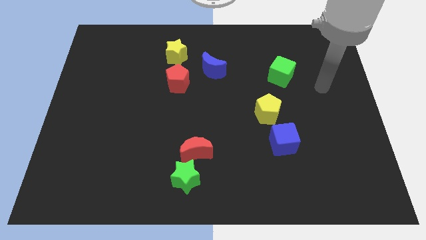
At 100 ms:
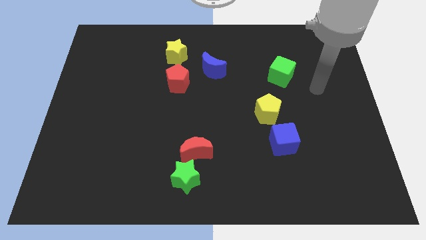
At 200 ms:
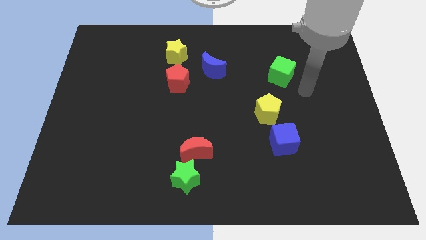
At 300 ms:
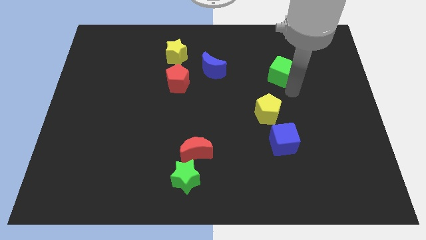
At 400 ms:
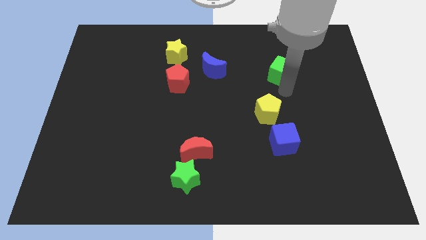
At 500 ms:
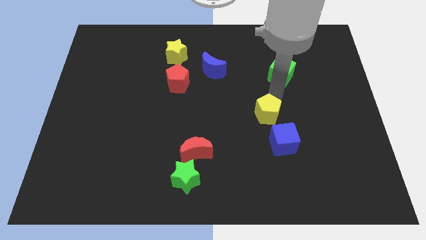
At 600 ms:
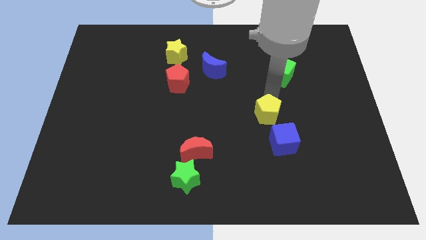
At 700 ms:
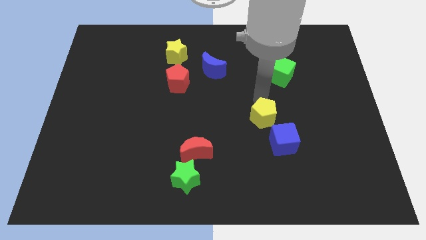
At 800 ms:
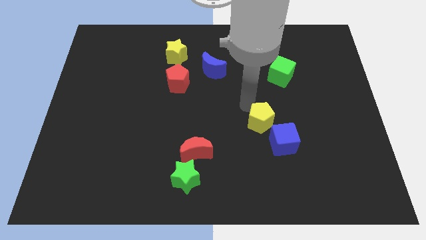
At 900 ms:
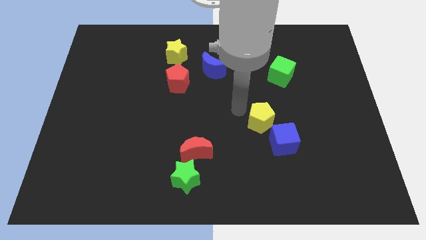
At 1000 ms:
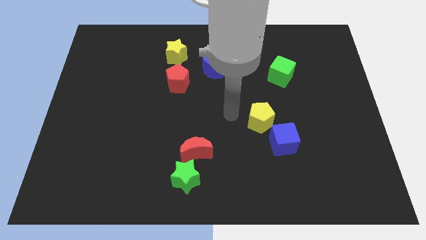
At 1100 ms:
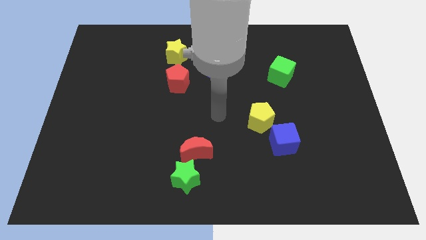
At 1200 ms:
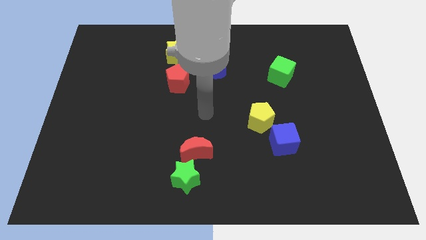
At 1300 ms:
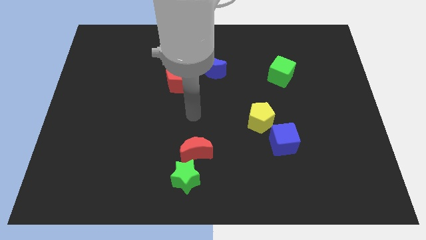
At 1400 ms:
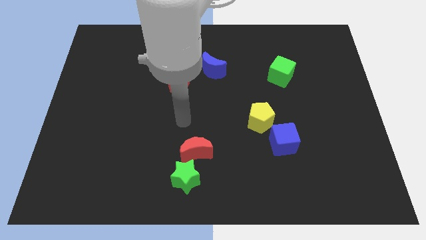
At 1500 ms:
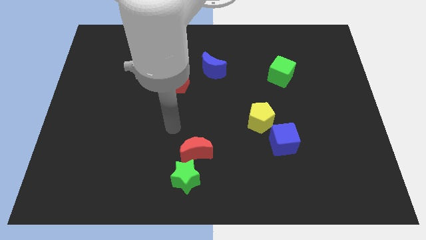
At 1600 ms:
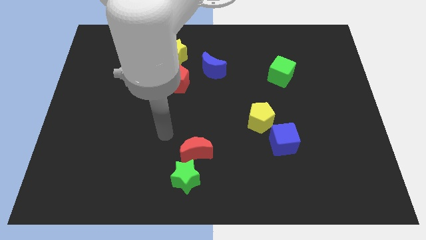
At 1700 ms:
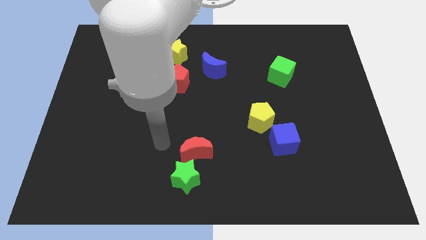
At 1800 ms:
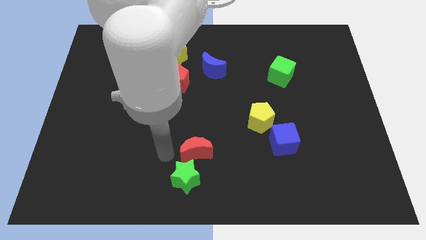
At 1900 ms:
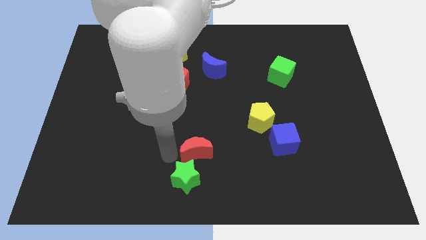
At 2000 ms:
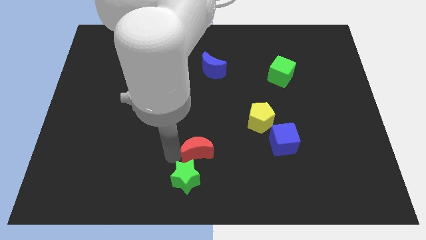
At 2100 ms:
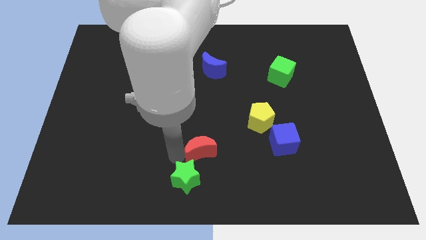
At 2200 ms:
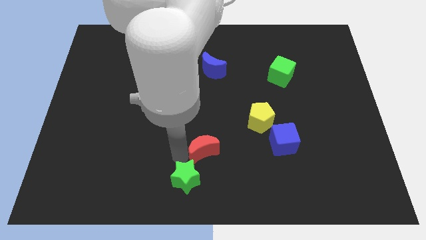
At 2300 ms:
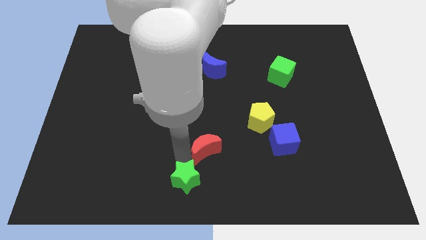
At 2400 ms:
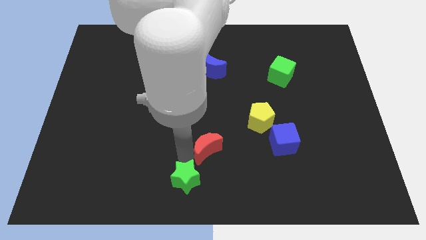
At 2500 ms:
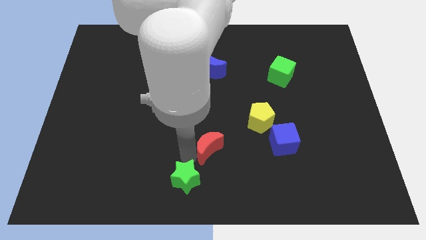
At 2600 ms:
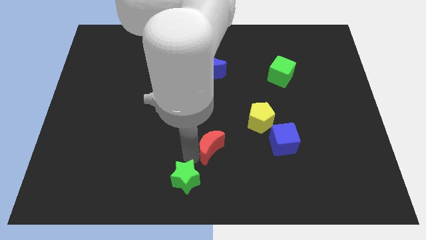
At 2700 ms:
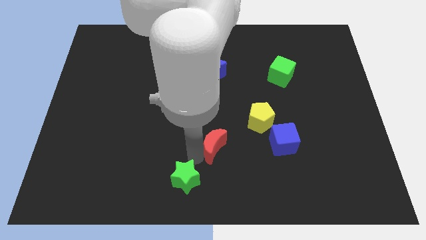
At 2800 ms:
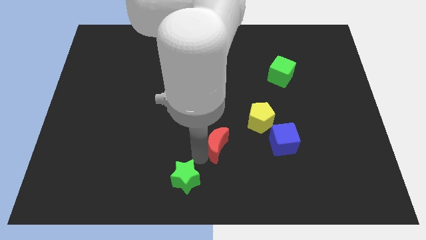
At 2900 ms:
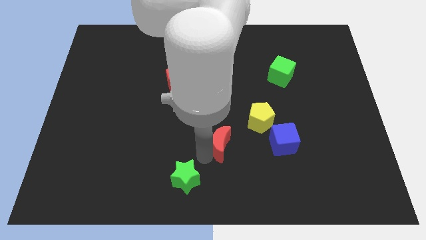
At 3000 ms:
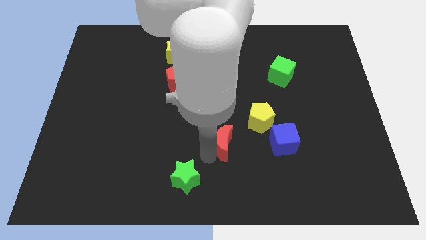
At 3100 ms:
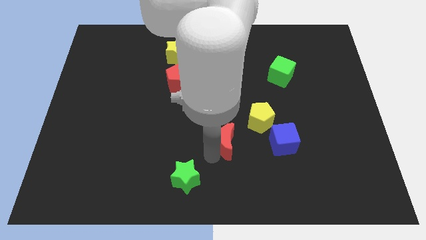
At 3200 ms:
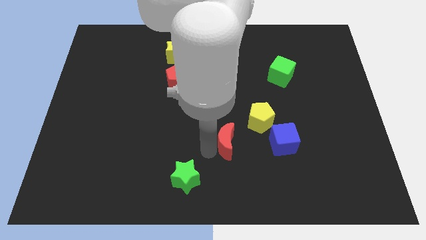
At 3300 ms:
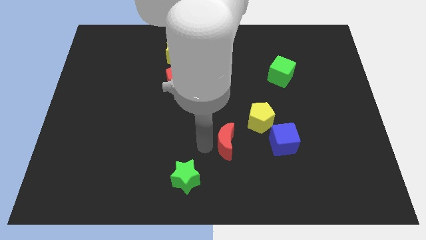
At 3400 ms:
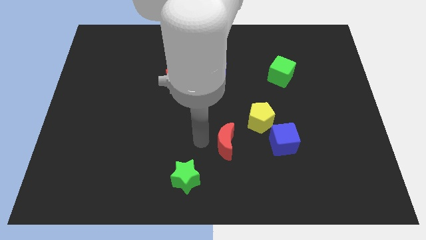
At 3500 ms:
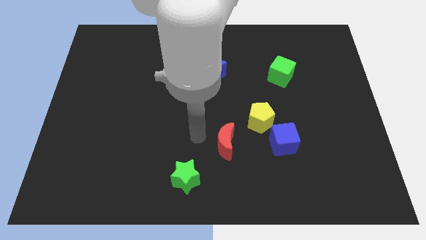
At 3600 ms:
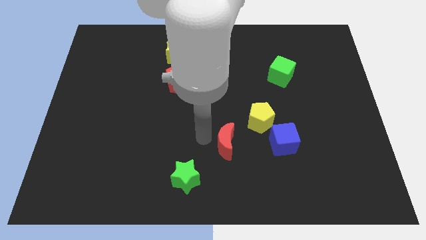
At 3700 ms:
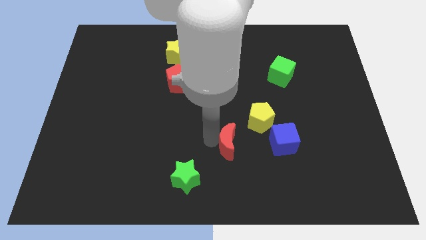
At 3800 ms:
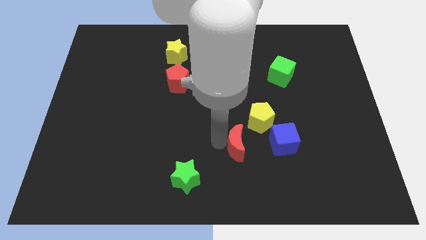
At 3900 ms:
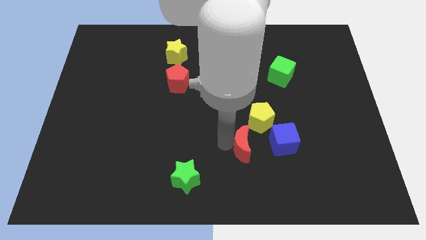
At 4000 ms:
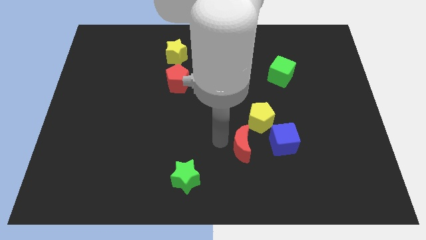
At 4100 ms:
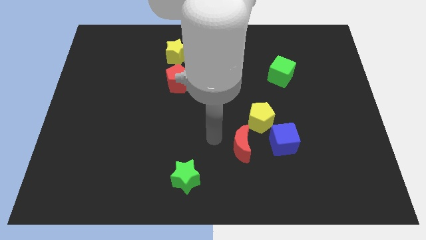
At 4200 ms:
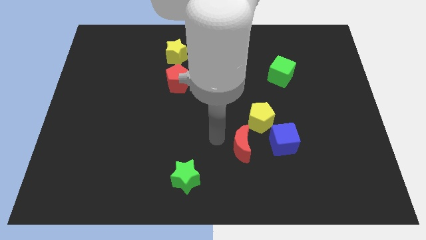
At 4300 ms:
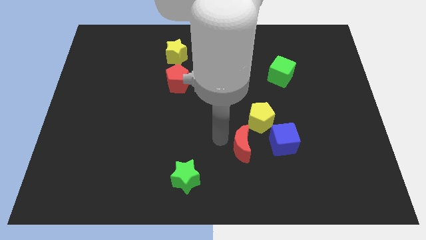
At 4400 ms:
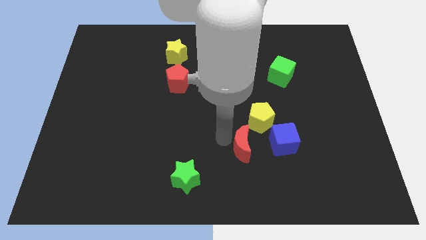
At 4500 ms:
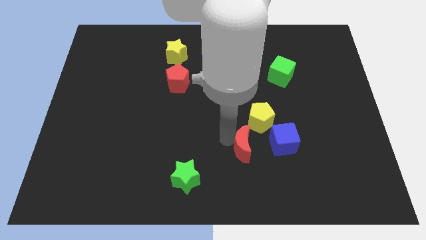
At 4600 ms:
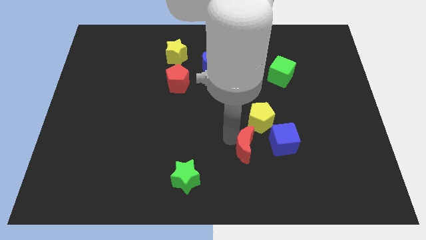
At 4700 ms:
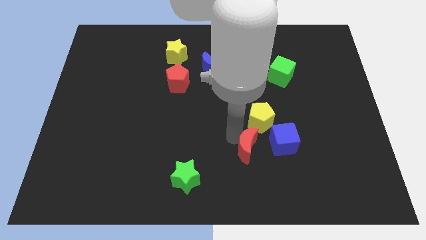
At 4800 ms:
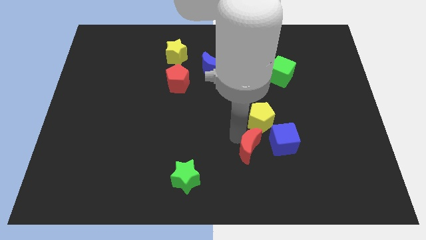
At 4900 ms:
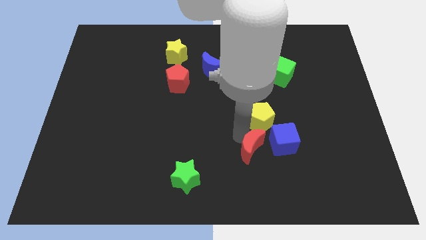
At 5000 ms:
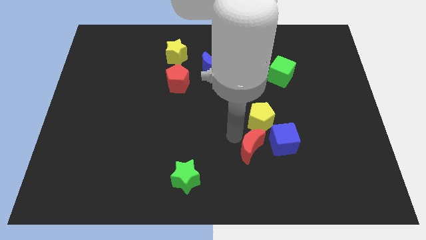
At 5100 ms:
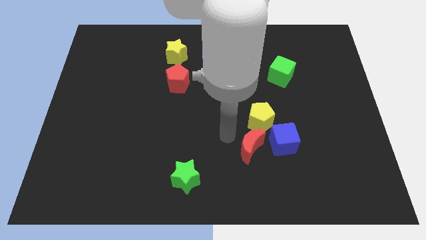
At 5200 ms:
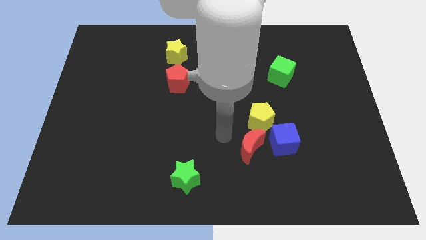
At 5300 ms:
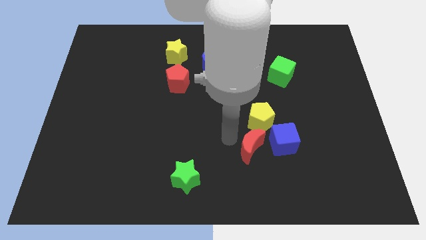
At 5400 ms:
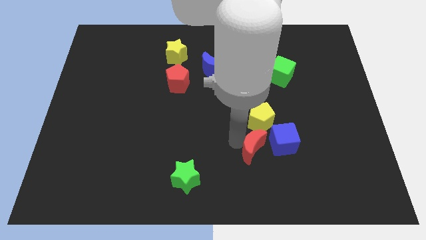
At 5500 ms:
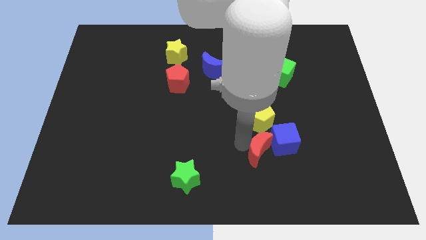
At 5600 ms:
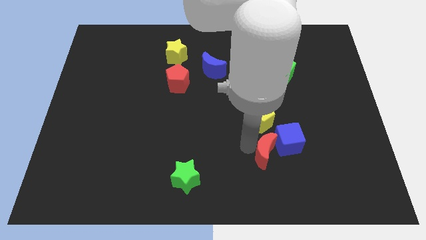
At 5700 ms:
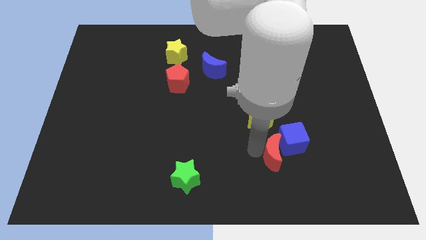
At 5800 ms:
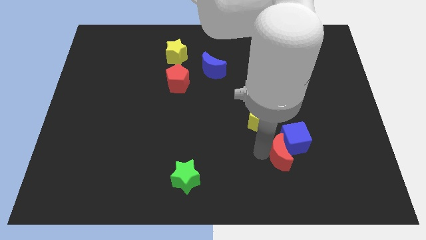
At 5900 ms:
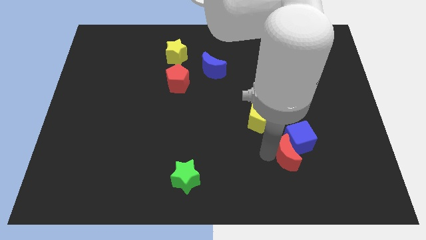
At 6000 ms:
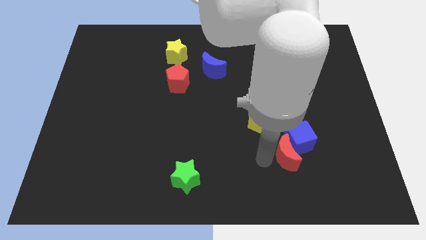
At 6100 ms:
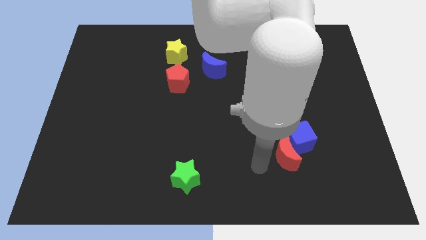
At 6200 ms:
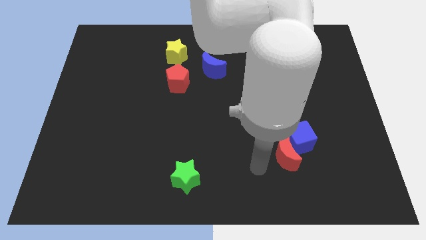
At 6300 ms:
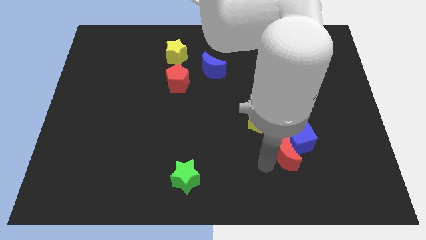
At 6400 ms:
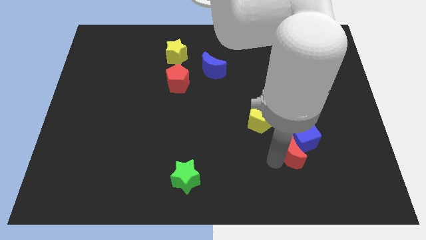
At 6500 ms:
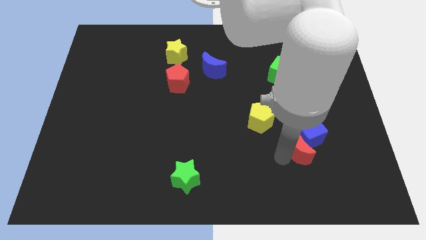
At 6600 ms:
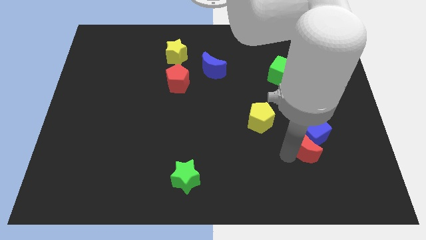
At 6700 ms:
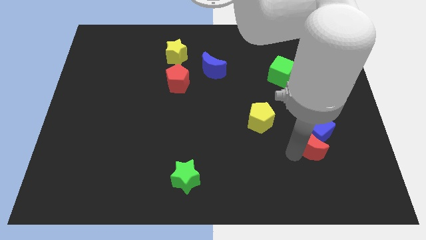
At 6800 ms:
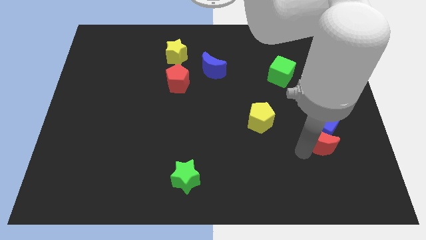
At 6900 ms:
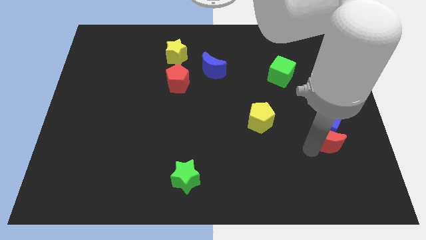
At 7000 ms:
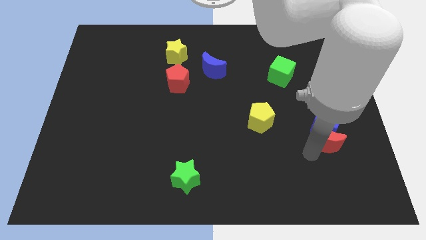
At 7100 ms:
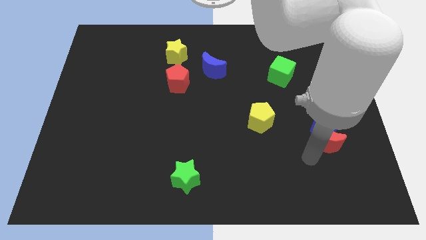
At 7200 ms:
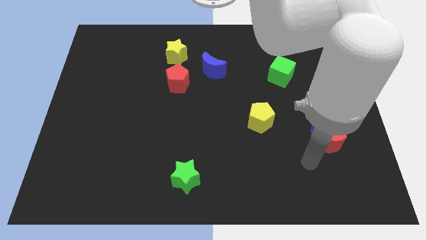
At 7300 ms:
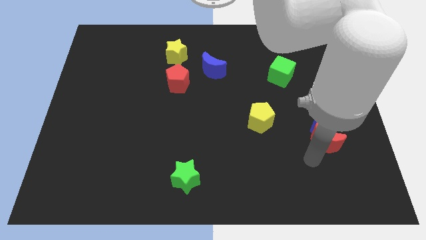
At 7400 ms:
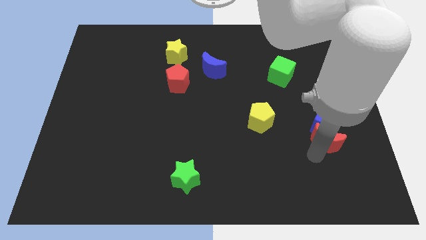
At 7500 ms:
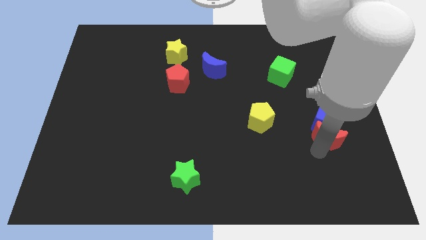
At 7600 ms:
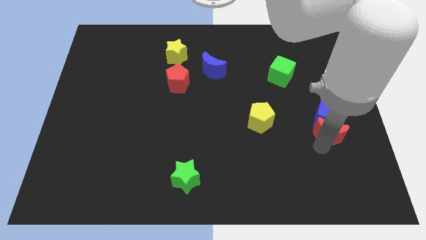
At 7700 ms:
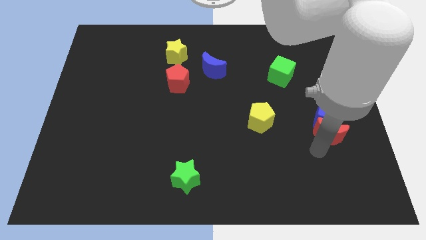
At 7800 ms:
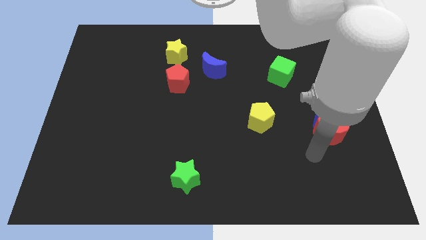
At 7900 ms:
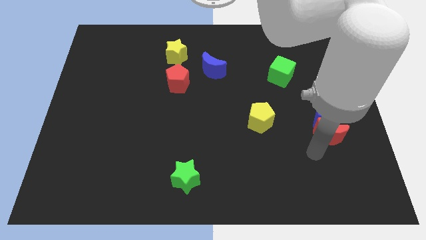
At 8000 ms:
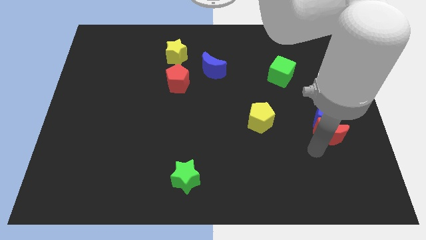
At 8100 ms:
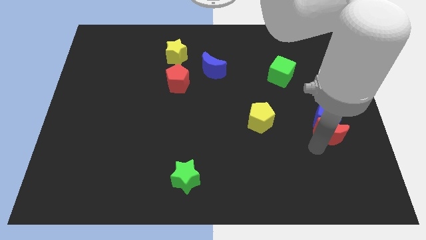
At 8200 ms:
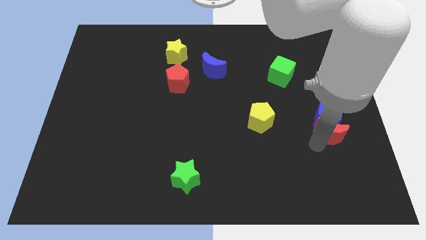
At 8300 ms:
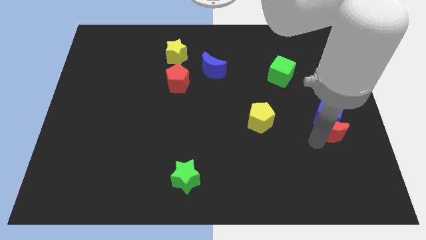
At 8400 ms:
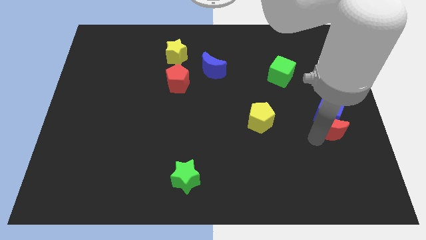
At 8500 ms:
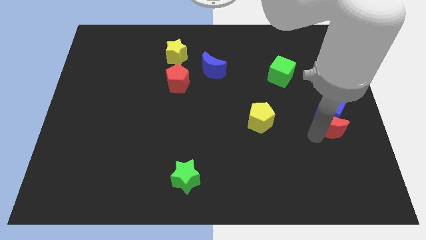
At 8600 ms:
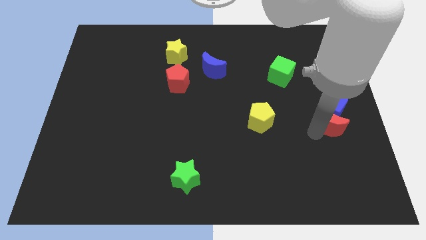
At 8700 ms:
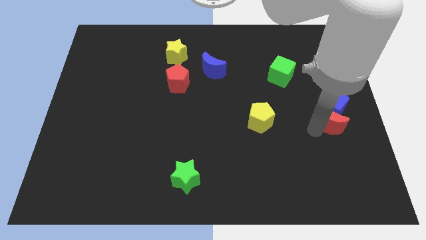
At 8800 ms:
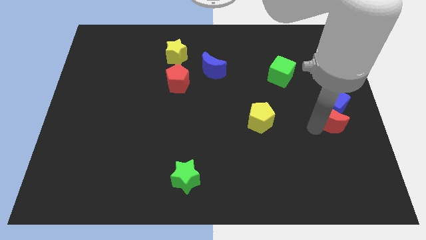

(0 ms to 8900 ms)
slide the red moon to the right side
